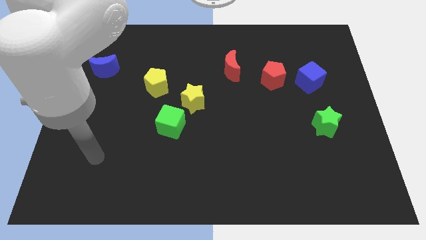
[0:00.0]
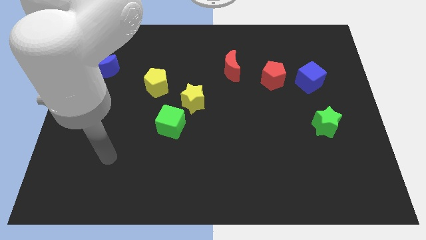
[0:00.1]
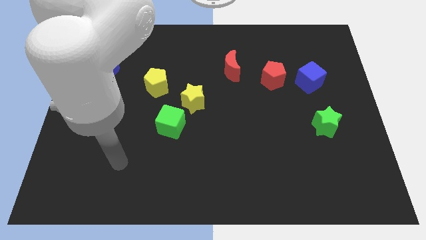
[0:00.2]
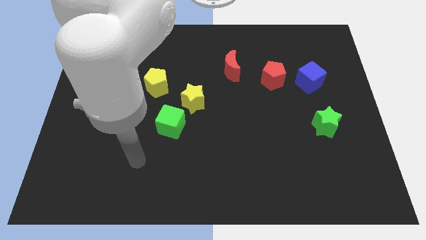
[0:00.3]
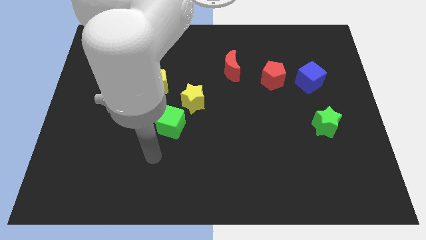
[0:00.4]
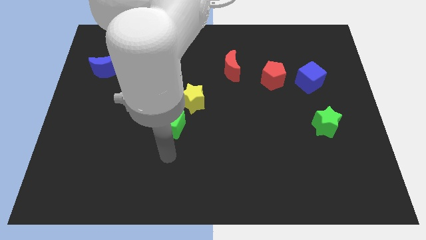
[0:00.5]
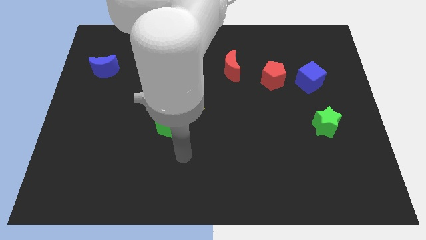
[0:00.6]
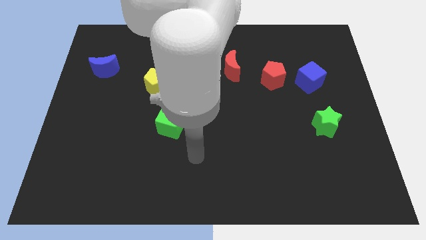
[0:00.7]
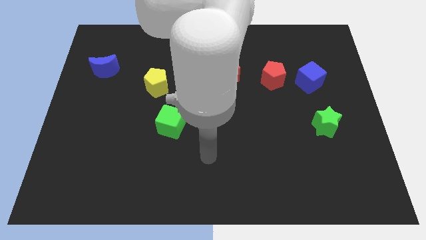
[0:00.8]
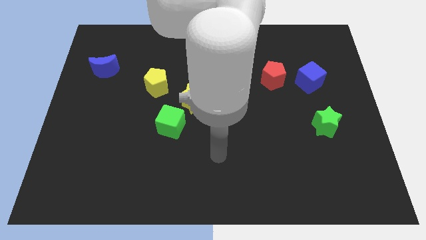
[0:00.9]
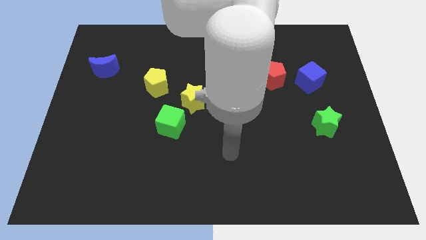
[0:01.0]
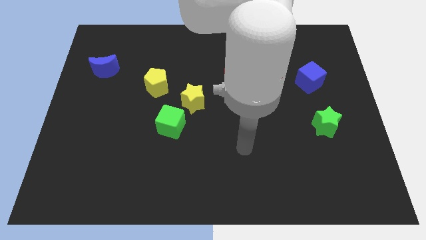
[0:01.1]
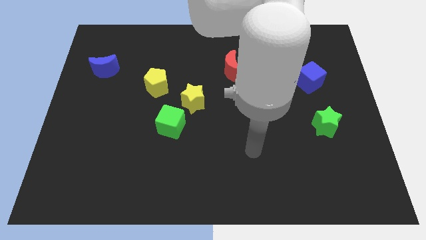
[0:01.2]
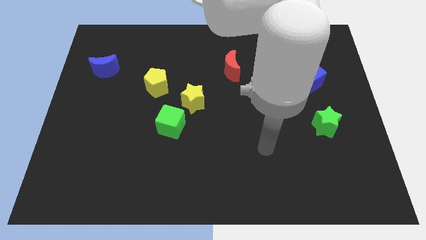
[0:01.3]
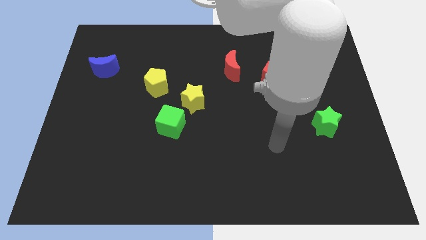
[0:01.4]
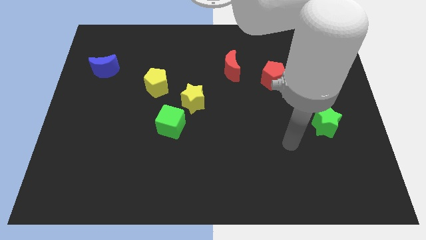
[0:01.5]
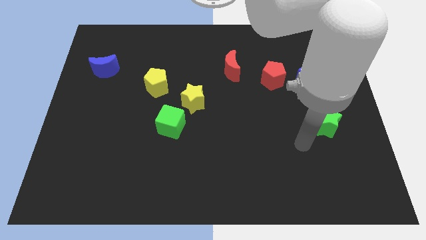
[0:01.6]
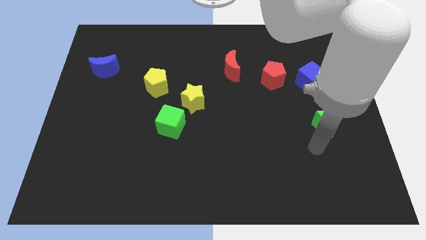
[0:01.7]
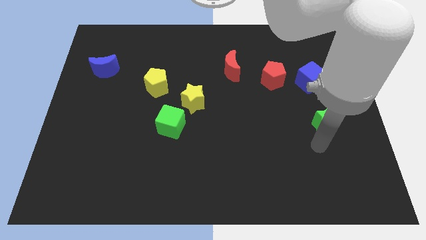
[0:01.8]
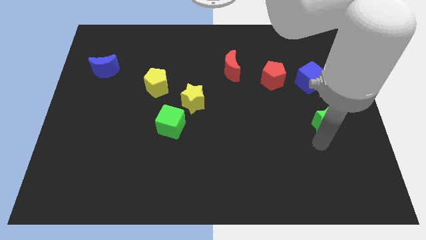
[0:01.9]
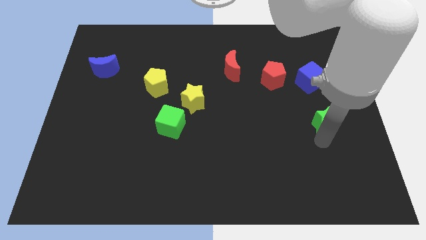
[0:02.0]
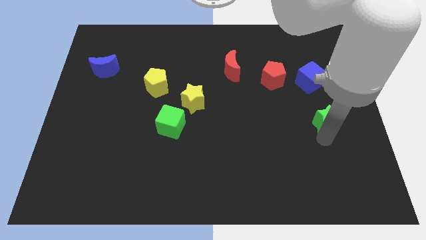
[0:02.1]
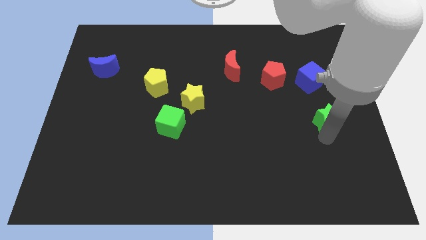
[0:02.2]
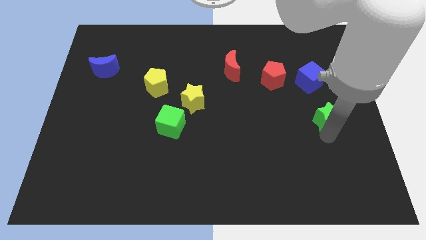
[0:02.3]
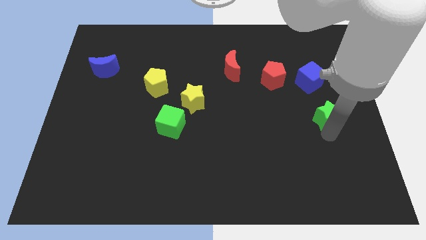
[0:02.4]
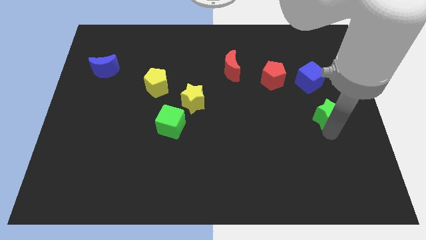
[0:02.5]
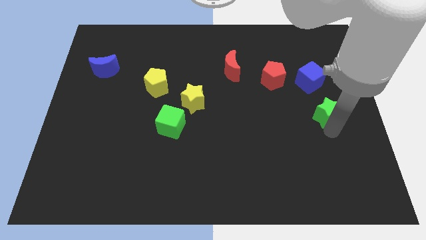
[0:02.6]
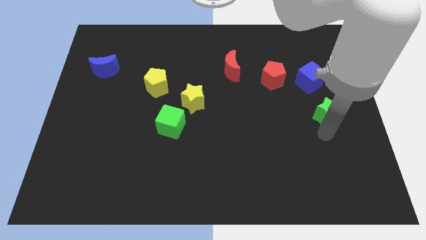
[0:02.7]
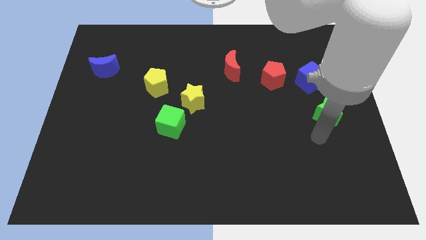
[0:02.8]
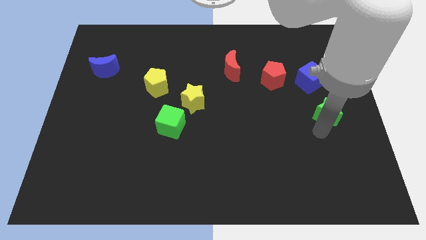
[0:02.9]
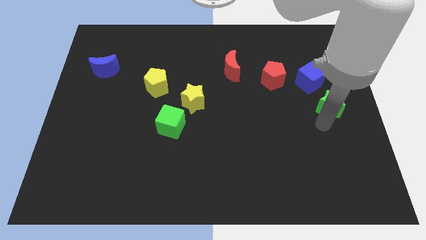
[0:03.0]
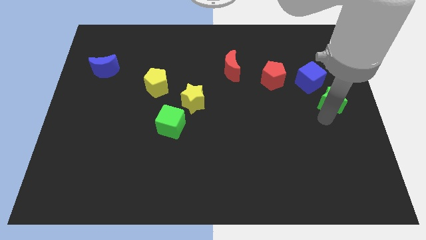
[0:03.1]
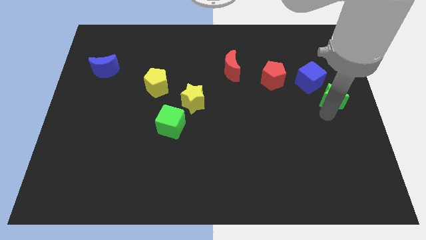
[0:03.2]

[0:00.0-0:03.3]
push the green star somewhat up

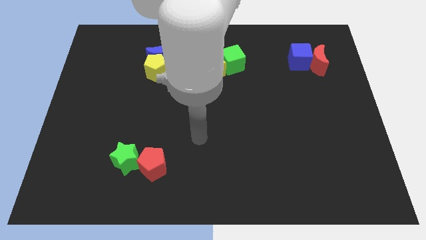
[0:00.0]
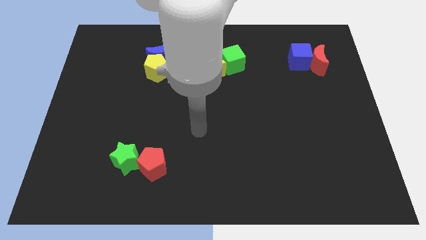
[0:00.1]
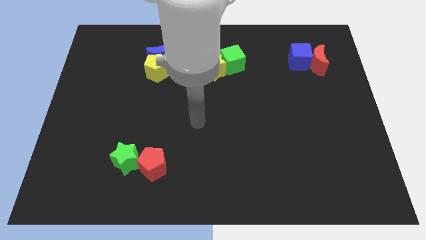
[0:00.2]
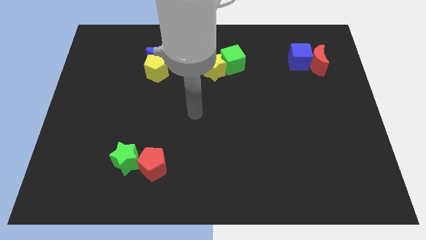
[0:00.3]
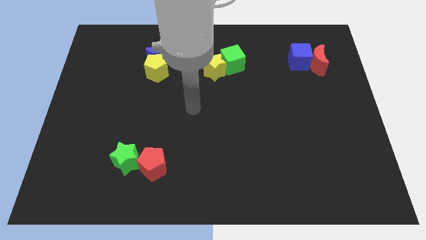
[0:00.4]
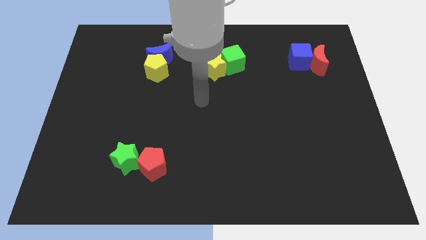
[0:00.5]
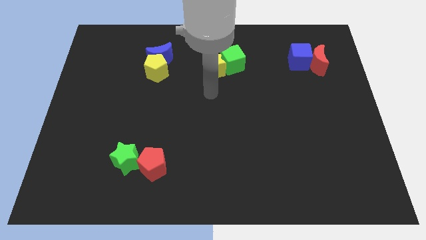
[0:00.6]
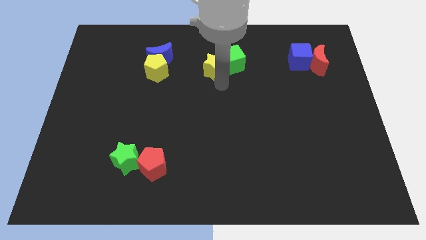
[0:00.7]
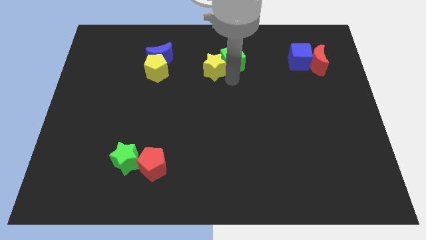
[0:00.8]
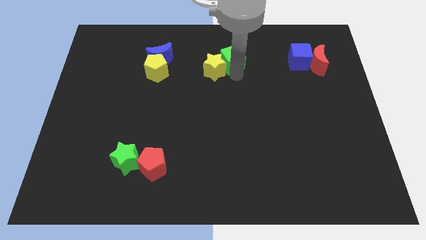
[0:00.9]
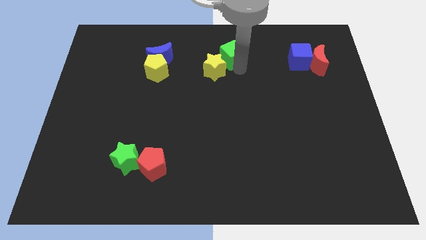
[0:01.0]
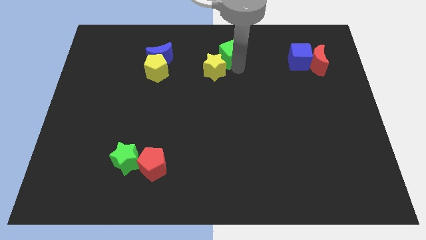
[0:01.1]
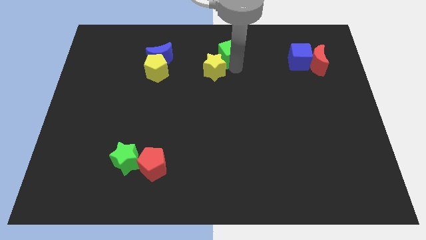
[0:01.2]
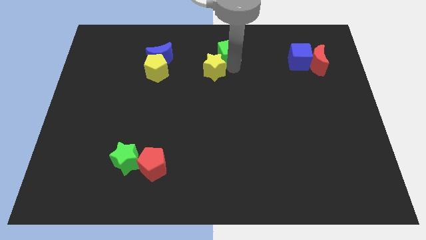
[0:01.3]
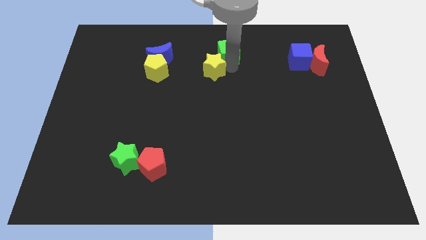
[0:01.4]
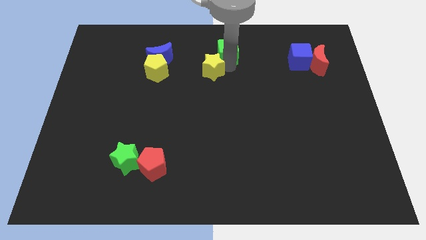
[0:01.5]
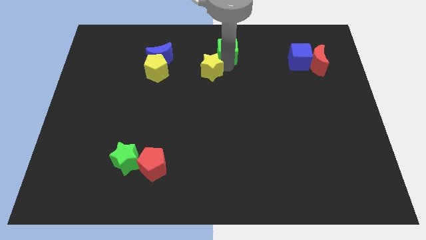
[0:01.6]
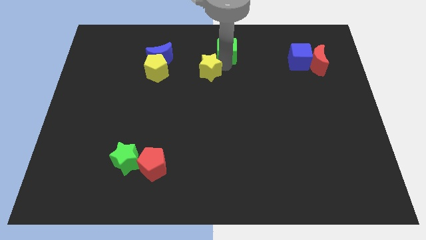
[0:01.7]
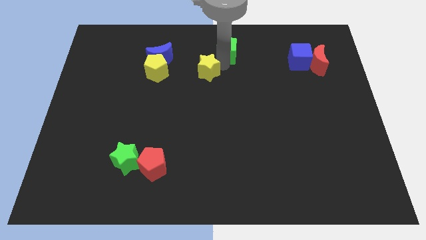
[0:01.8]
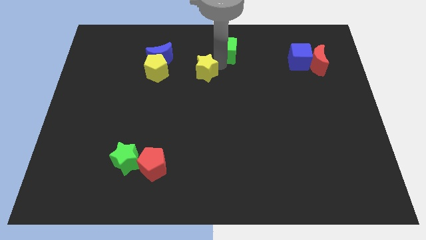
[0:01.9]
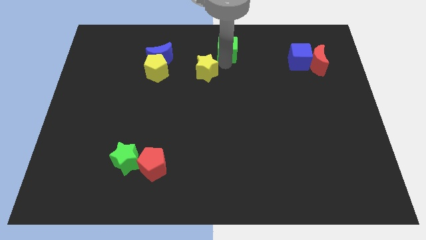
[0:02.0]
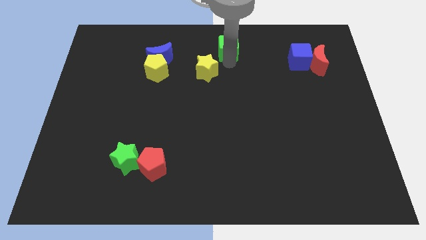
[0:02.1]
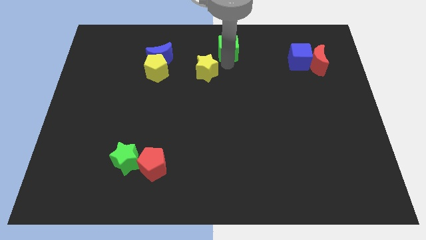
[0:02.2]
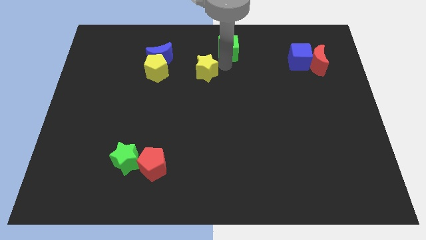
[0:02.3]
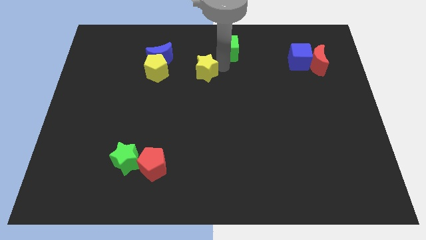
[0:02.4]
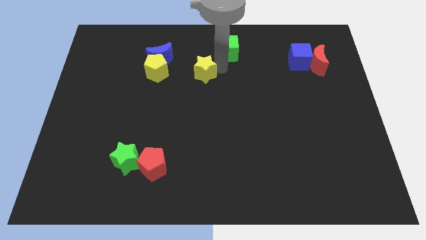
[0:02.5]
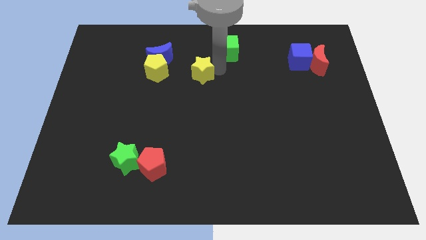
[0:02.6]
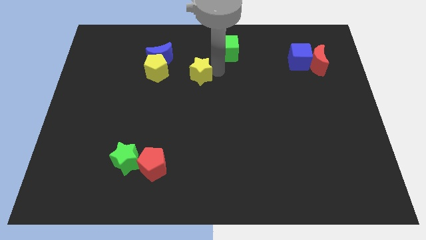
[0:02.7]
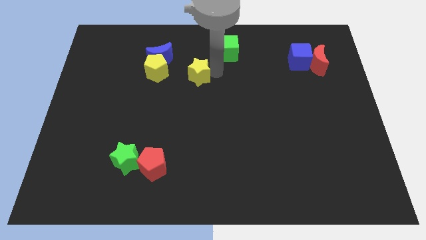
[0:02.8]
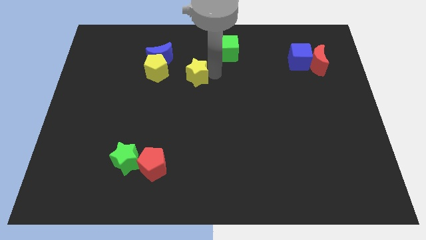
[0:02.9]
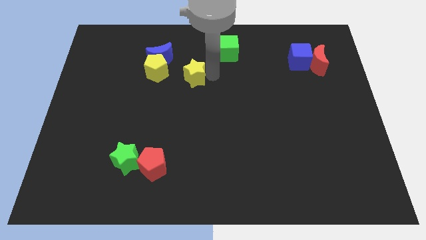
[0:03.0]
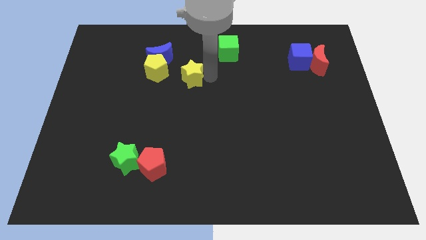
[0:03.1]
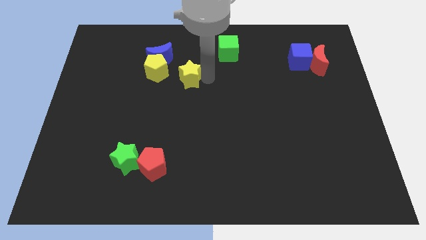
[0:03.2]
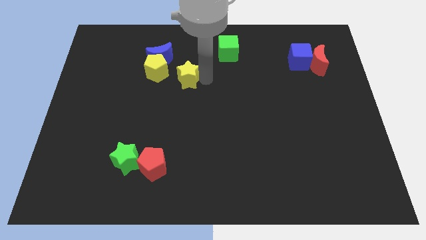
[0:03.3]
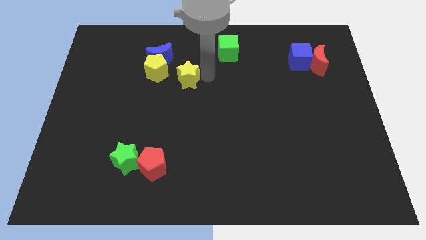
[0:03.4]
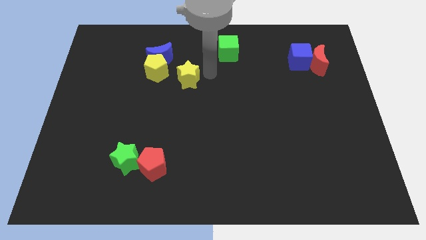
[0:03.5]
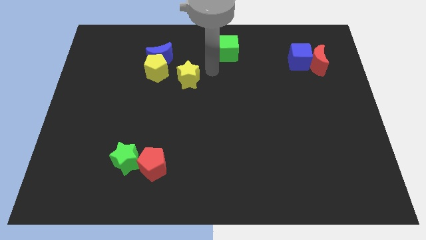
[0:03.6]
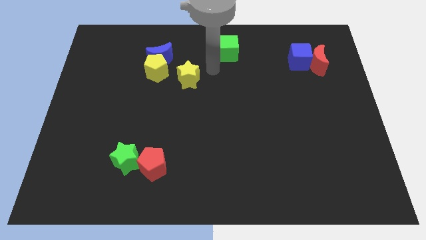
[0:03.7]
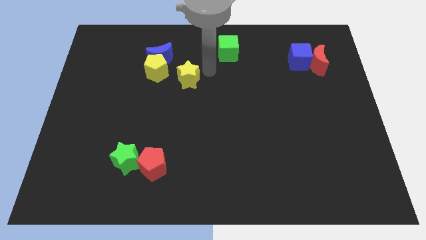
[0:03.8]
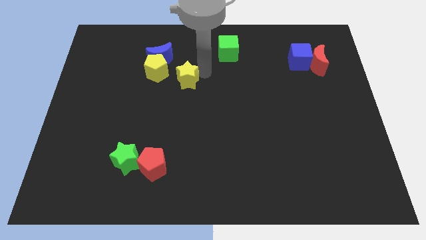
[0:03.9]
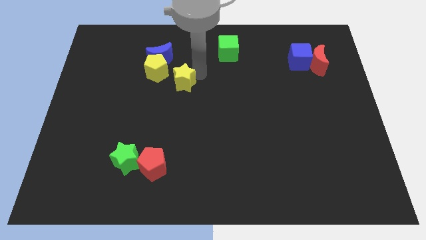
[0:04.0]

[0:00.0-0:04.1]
slide the yellow star left somewhat

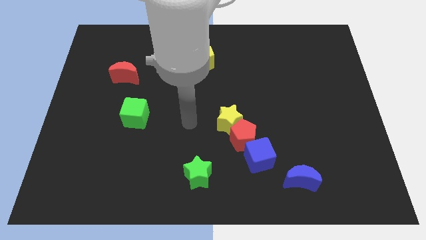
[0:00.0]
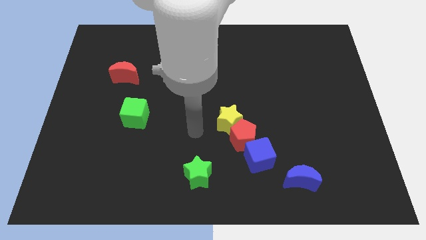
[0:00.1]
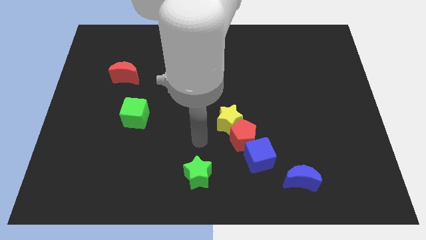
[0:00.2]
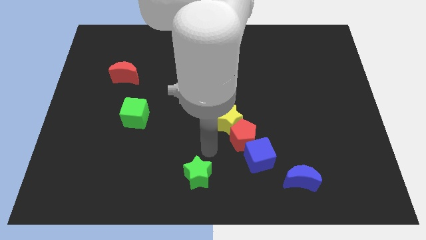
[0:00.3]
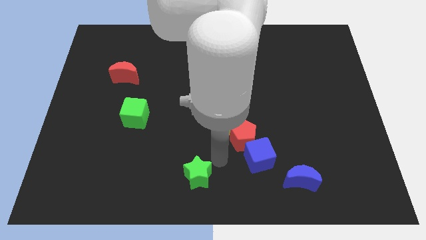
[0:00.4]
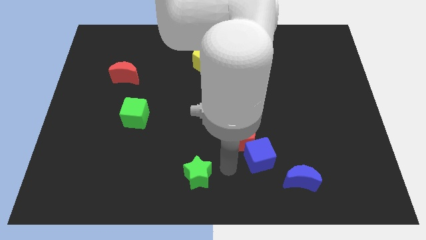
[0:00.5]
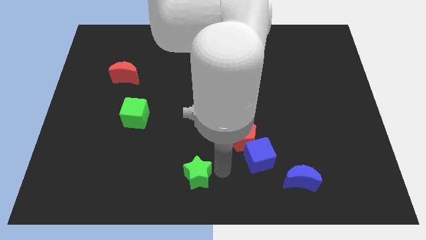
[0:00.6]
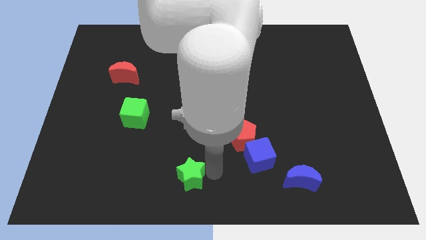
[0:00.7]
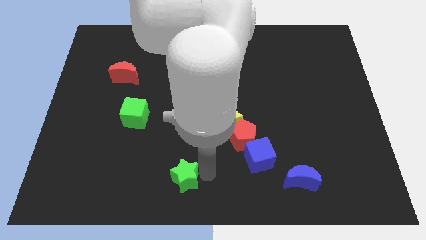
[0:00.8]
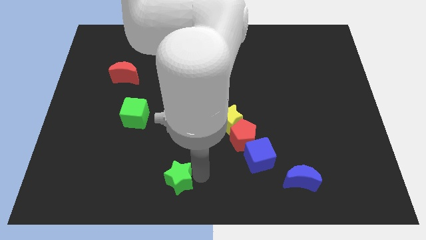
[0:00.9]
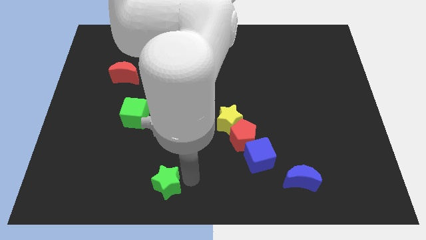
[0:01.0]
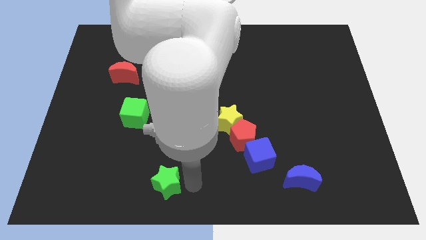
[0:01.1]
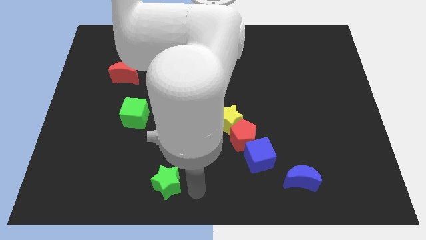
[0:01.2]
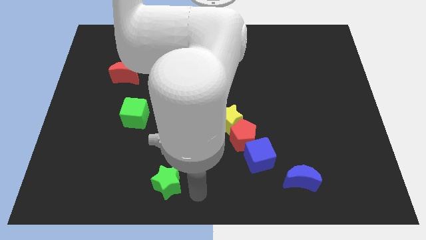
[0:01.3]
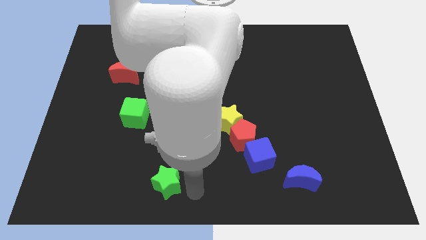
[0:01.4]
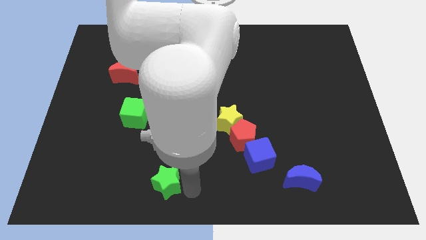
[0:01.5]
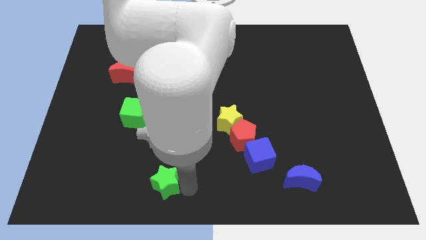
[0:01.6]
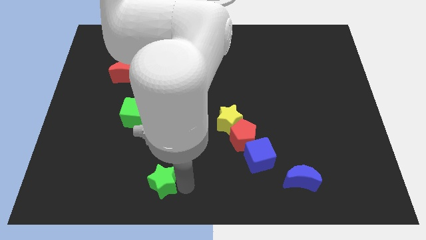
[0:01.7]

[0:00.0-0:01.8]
push the green star a little to the left
